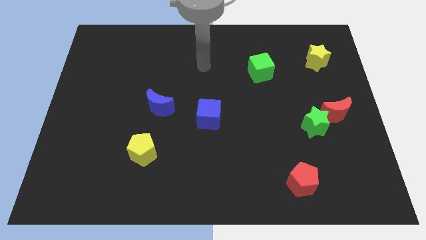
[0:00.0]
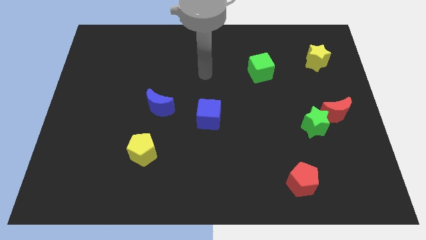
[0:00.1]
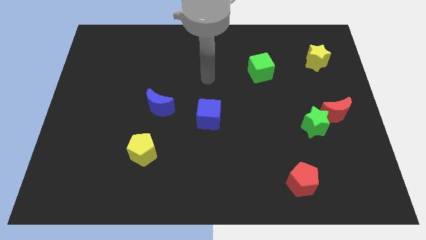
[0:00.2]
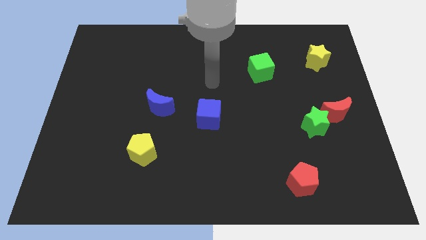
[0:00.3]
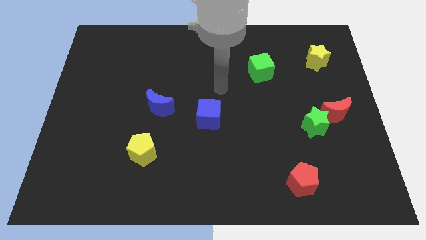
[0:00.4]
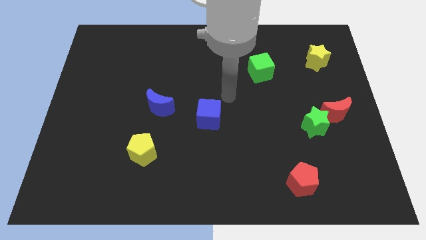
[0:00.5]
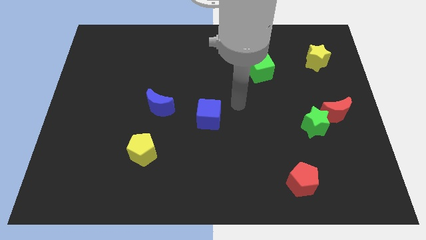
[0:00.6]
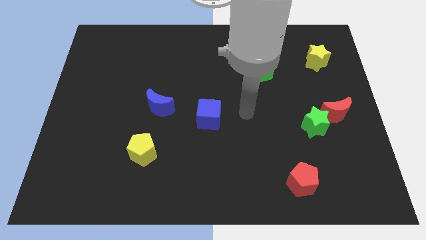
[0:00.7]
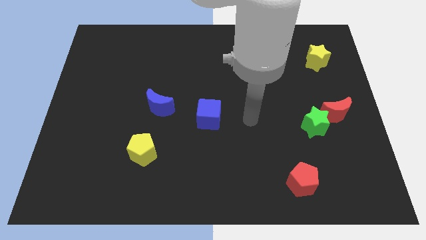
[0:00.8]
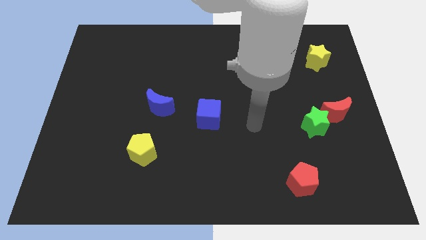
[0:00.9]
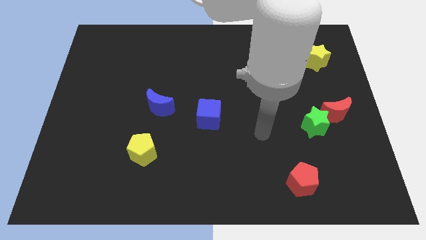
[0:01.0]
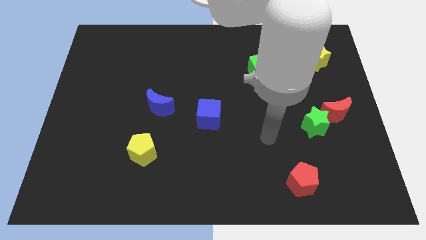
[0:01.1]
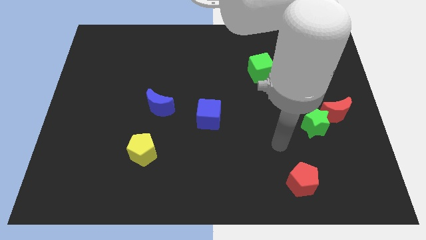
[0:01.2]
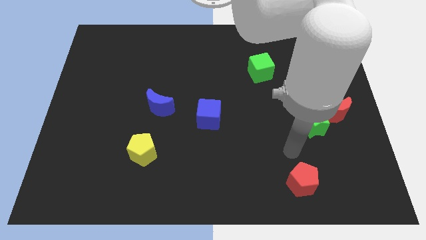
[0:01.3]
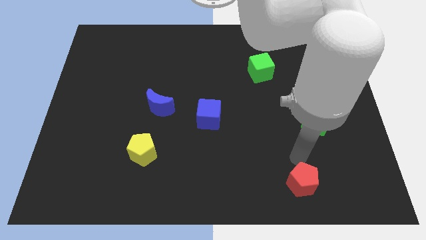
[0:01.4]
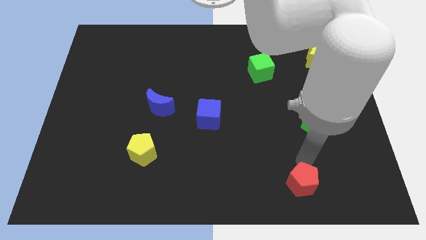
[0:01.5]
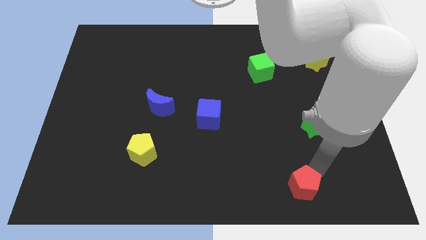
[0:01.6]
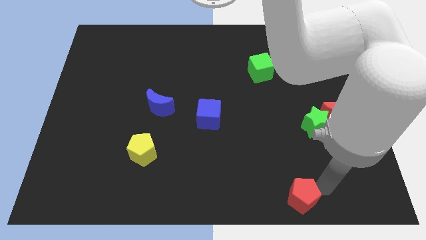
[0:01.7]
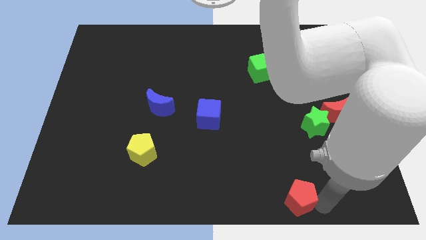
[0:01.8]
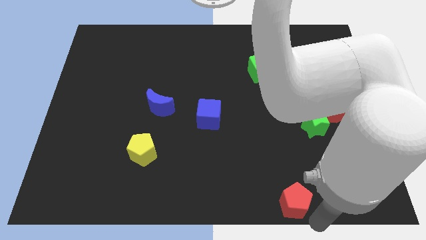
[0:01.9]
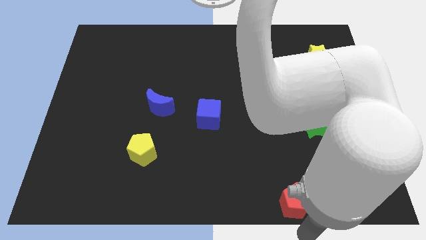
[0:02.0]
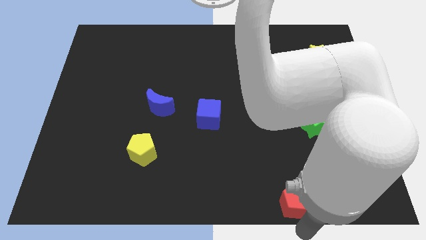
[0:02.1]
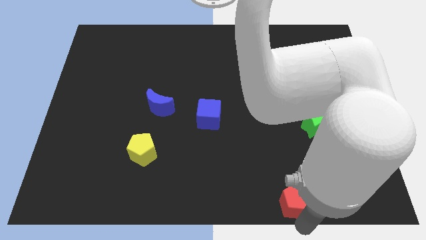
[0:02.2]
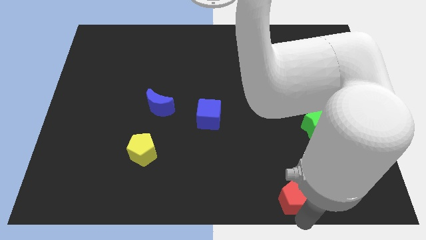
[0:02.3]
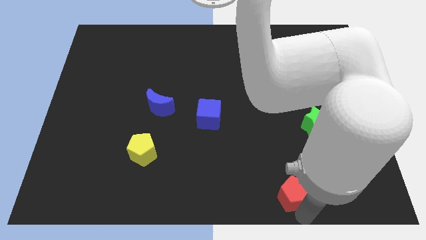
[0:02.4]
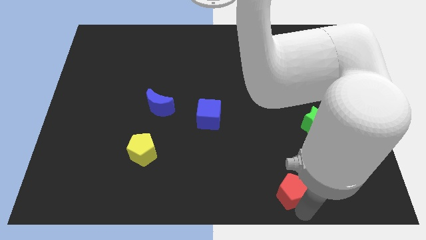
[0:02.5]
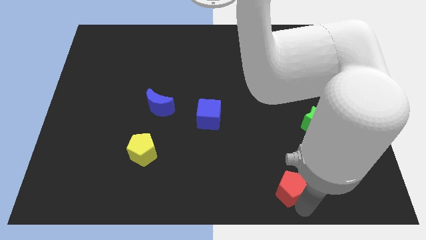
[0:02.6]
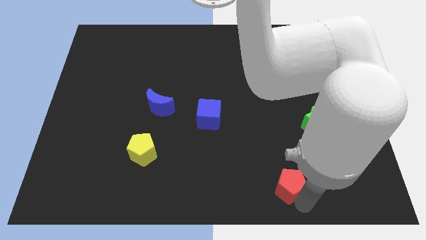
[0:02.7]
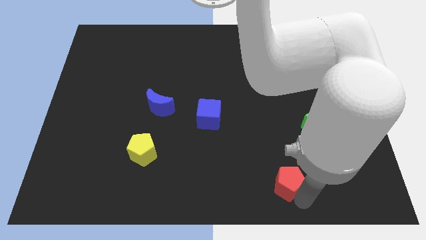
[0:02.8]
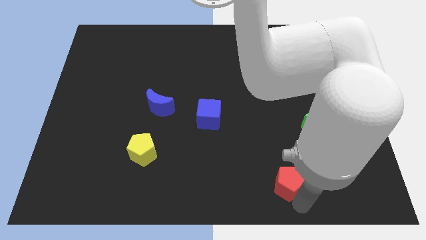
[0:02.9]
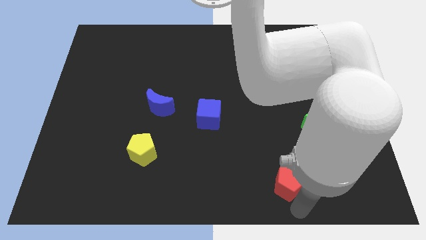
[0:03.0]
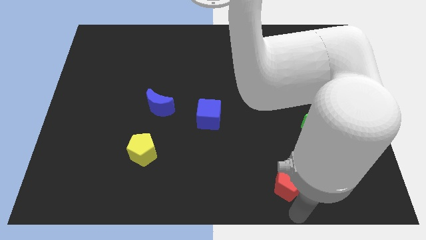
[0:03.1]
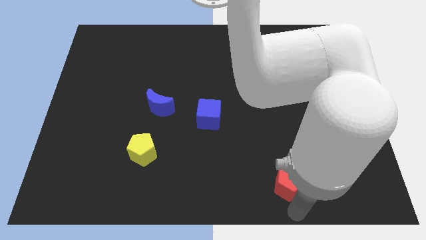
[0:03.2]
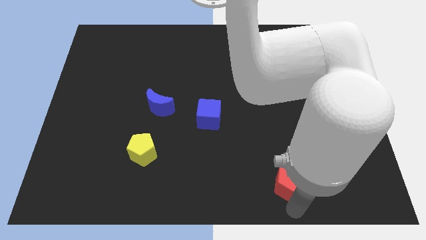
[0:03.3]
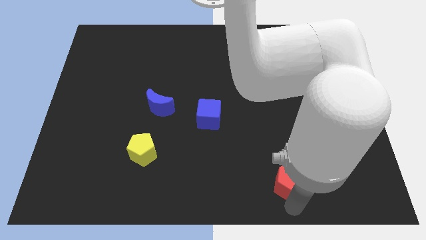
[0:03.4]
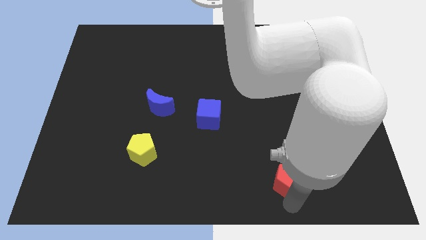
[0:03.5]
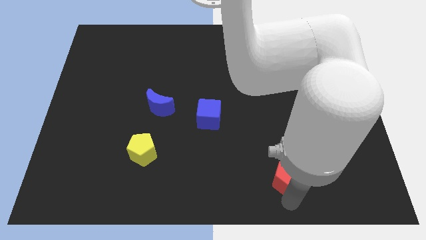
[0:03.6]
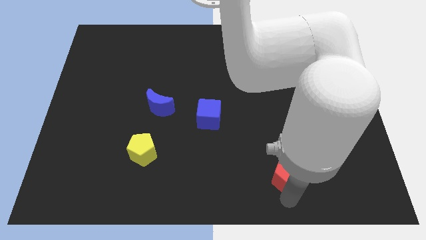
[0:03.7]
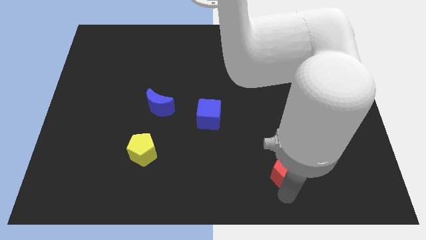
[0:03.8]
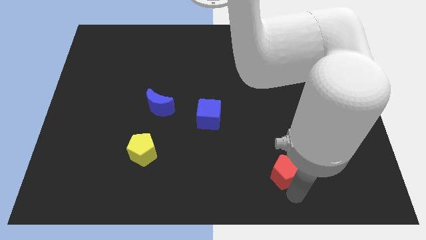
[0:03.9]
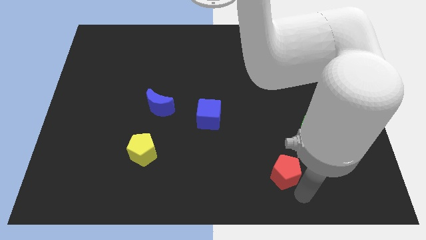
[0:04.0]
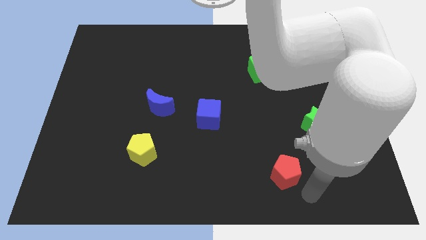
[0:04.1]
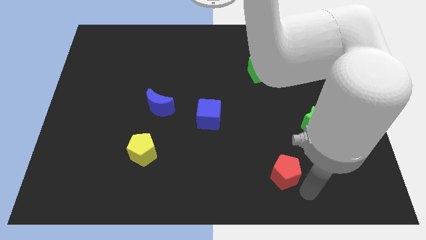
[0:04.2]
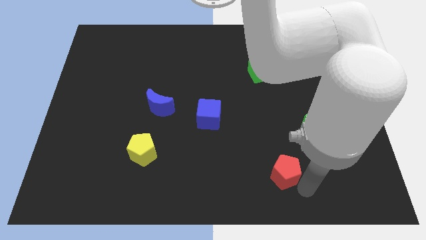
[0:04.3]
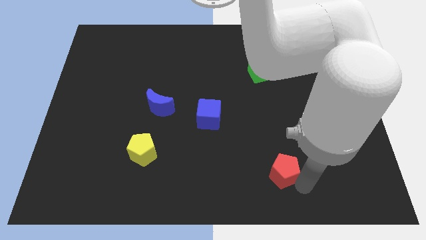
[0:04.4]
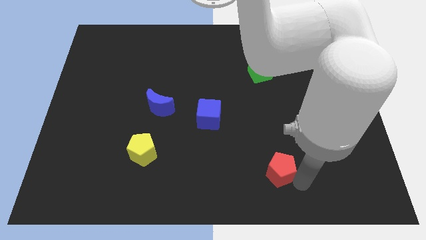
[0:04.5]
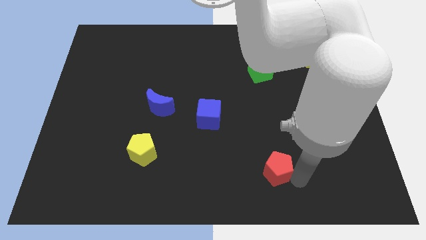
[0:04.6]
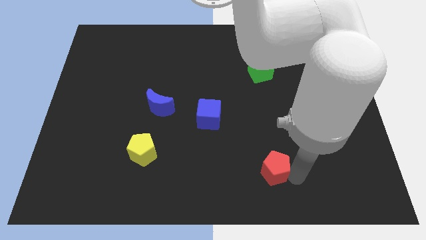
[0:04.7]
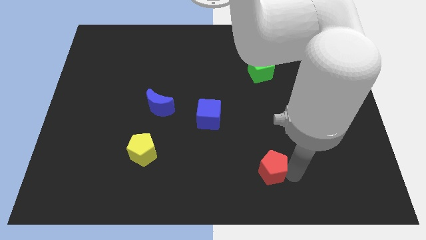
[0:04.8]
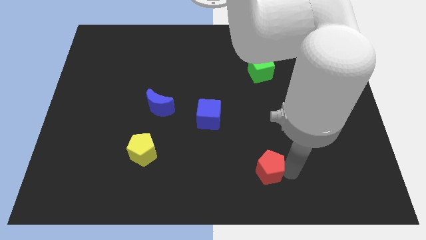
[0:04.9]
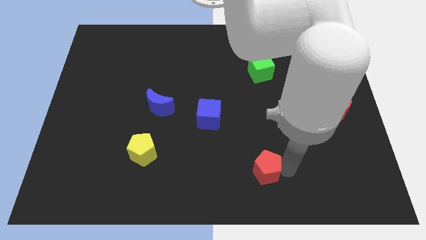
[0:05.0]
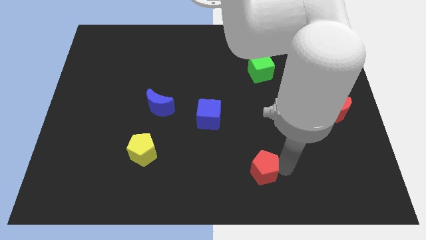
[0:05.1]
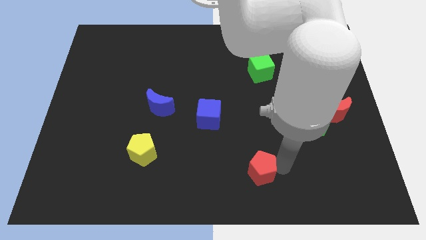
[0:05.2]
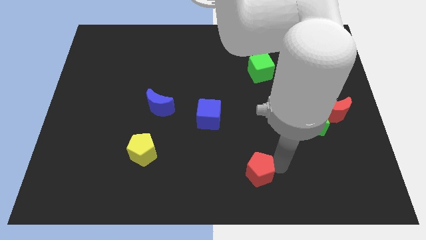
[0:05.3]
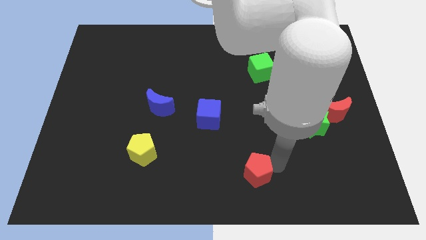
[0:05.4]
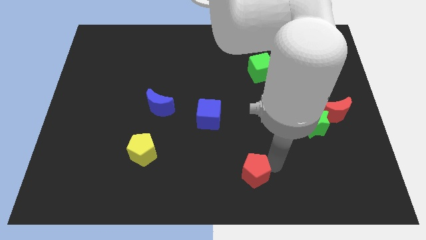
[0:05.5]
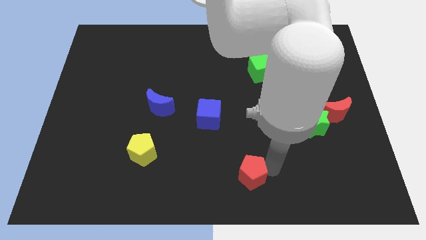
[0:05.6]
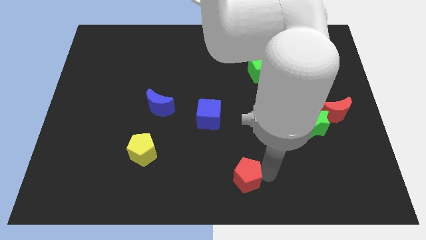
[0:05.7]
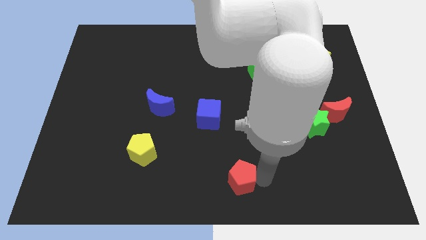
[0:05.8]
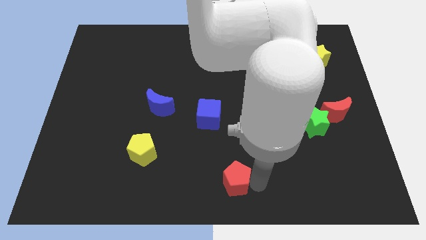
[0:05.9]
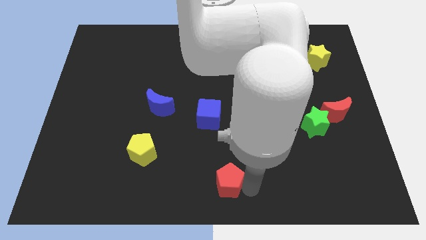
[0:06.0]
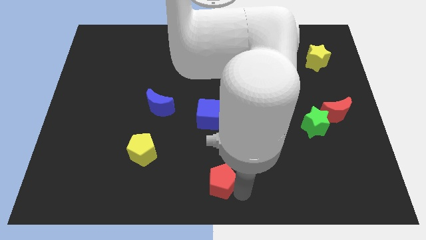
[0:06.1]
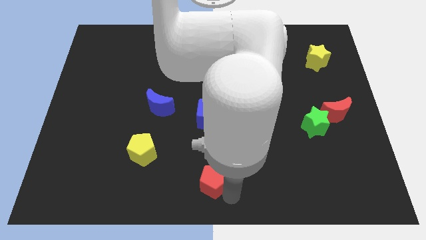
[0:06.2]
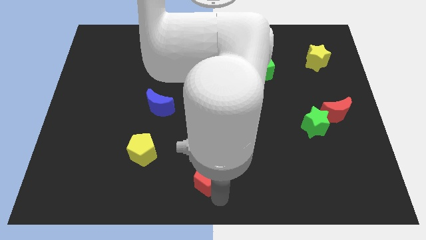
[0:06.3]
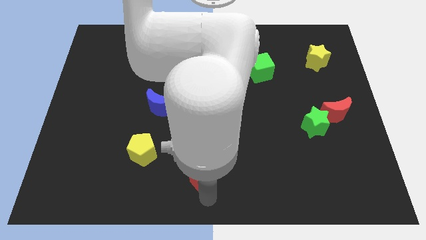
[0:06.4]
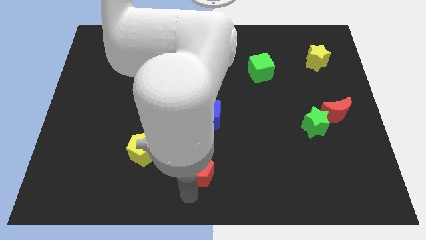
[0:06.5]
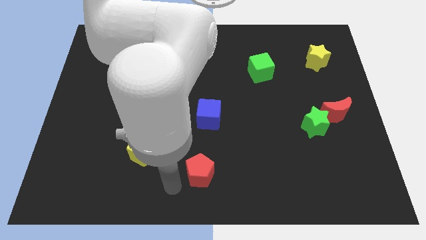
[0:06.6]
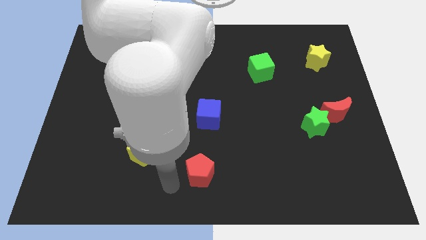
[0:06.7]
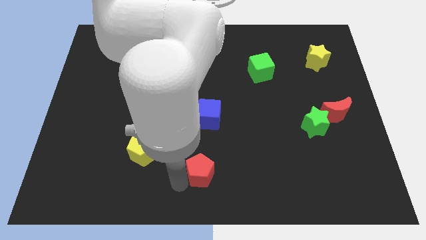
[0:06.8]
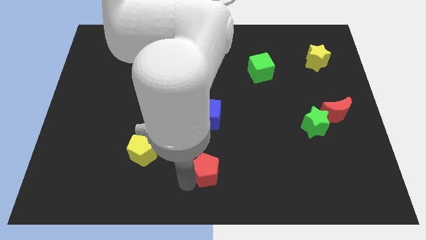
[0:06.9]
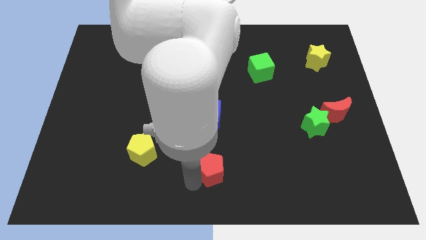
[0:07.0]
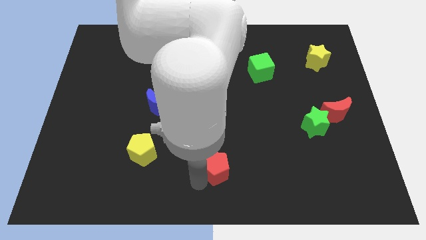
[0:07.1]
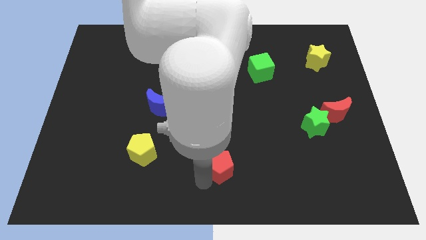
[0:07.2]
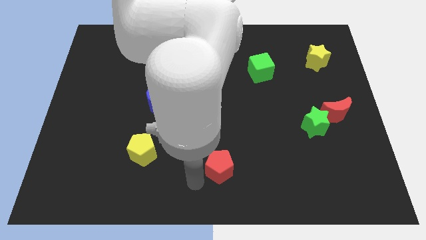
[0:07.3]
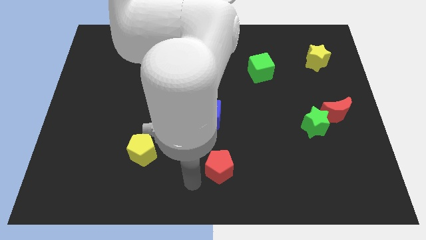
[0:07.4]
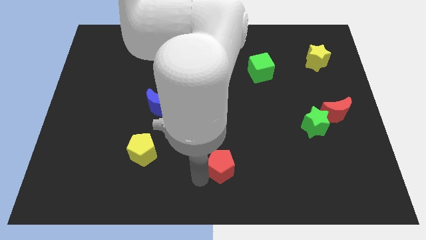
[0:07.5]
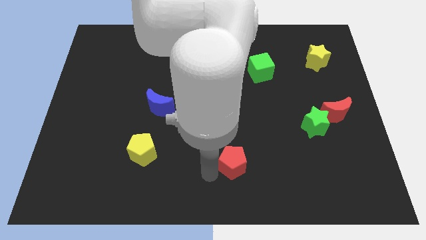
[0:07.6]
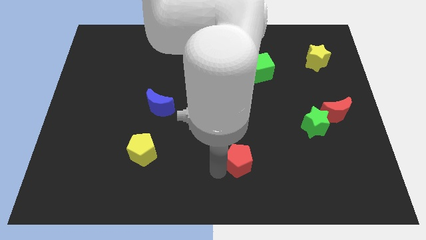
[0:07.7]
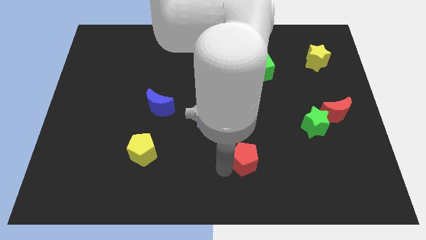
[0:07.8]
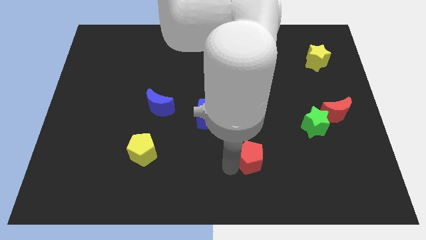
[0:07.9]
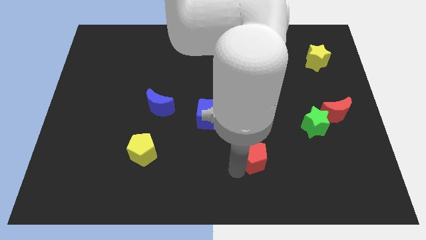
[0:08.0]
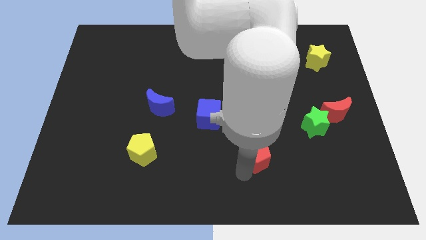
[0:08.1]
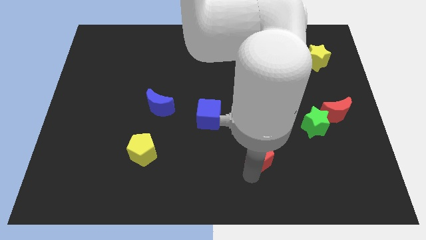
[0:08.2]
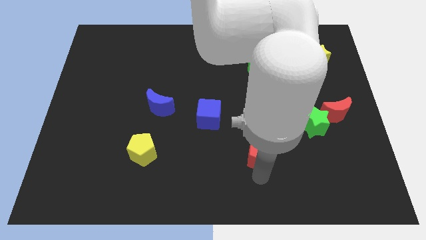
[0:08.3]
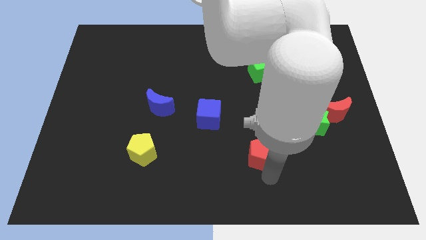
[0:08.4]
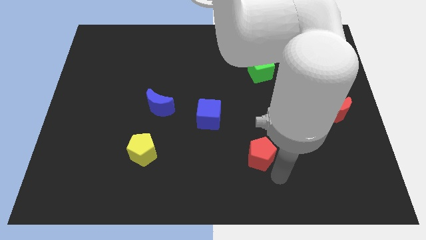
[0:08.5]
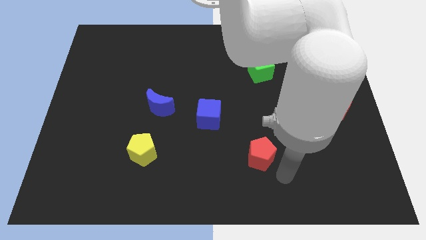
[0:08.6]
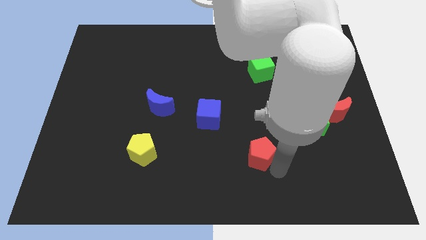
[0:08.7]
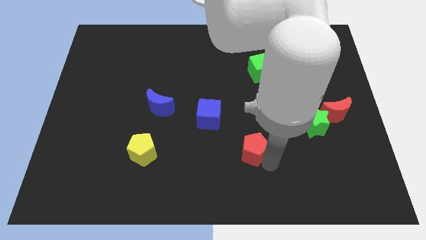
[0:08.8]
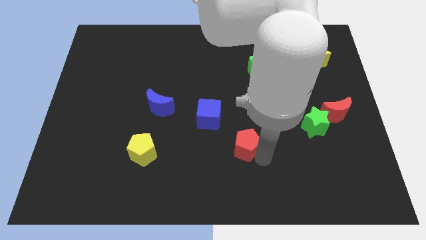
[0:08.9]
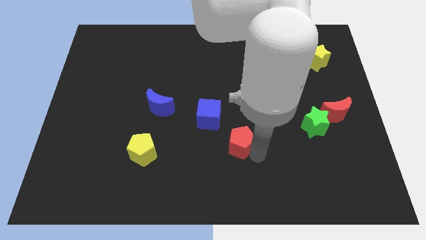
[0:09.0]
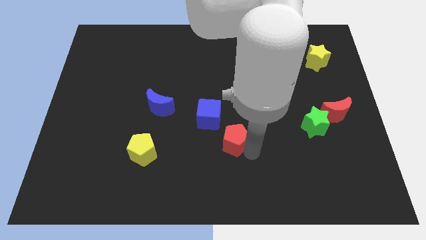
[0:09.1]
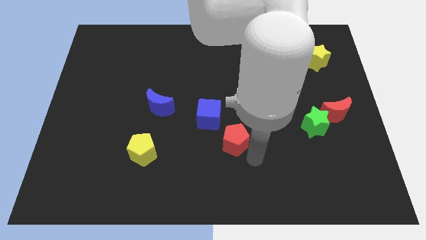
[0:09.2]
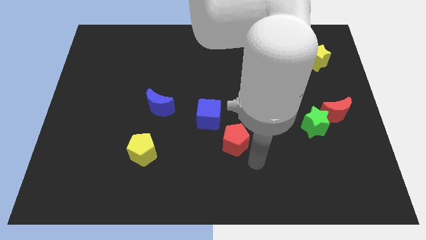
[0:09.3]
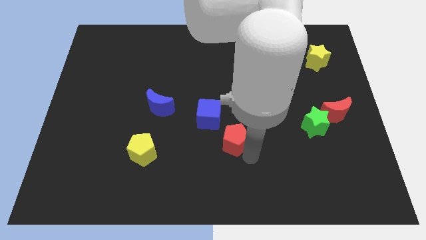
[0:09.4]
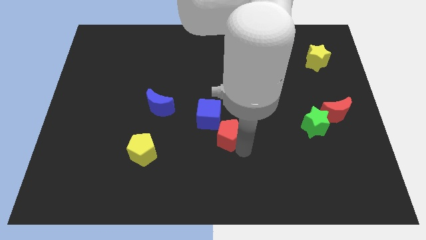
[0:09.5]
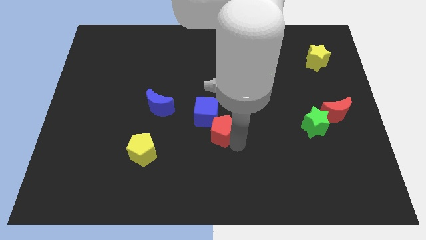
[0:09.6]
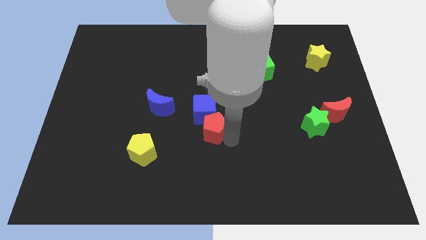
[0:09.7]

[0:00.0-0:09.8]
move the red pentagon next to the blue cube
